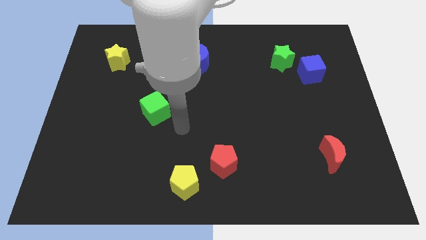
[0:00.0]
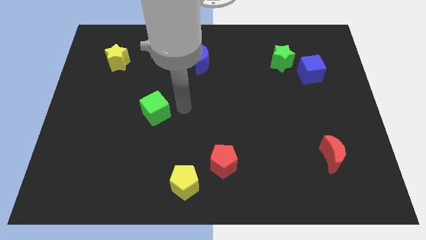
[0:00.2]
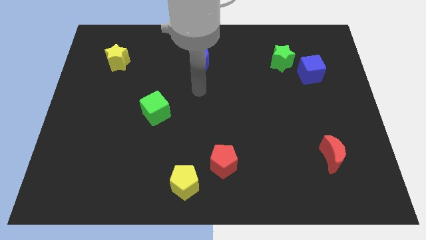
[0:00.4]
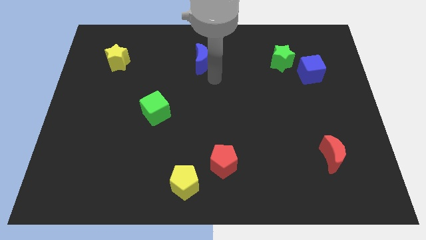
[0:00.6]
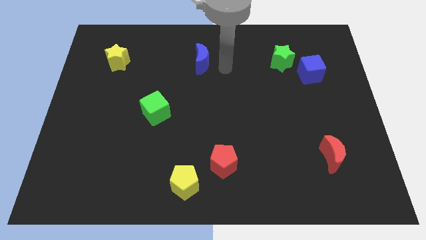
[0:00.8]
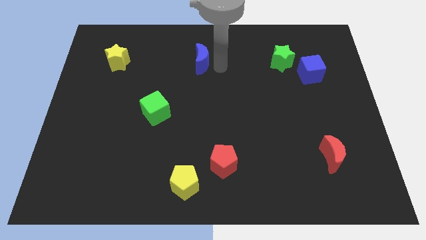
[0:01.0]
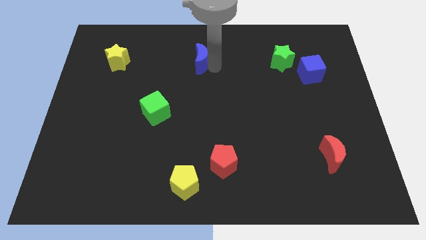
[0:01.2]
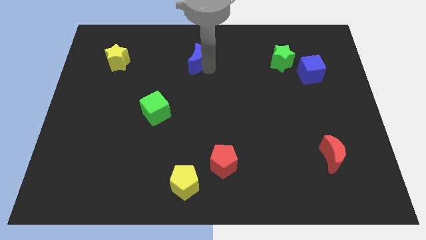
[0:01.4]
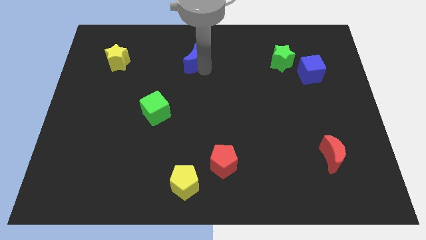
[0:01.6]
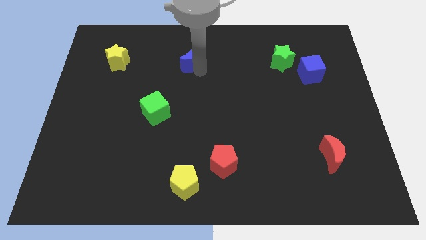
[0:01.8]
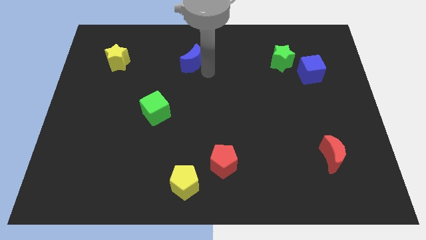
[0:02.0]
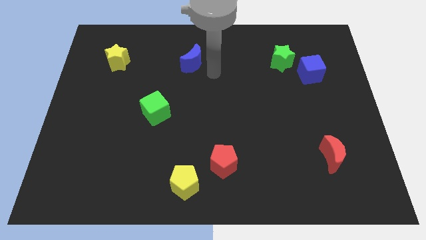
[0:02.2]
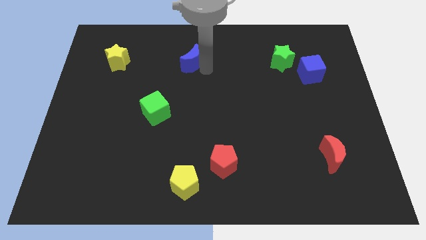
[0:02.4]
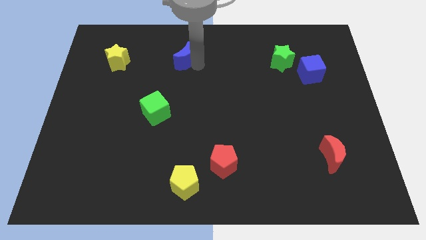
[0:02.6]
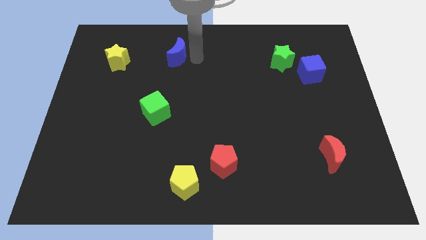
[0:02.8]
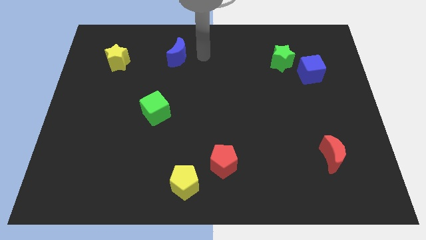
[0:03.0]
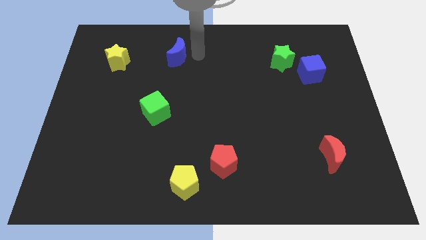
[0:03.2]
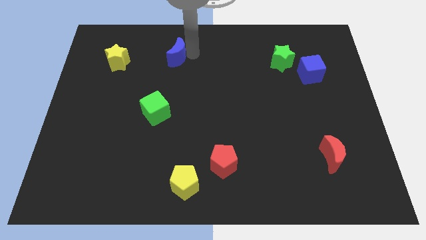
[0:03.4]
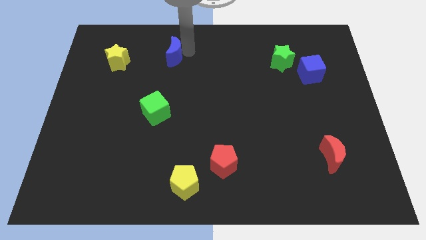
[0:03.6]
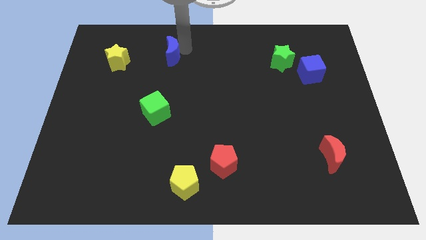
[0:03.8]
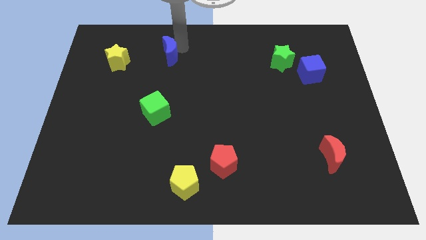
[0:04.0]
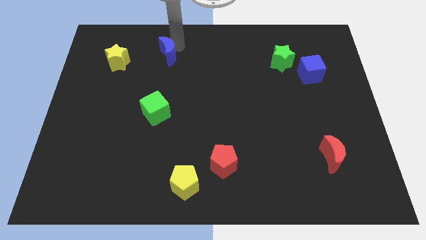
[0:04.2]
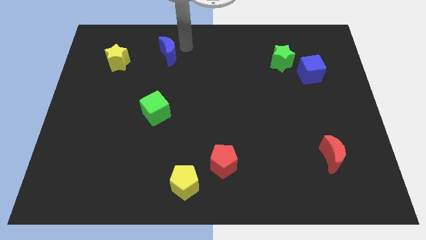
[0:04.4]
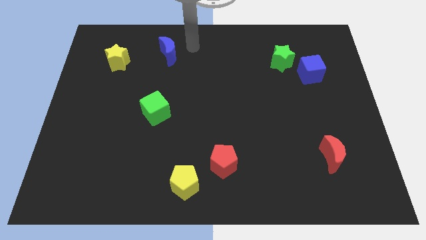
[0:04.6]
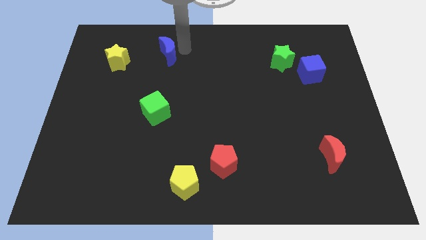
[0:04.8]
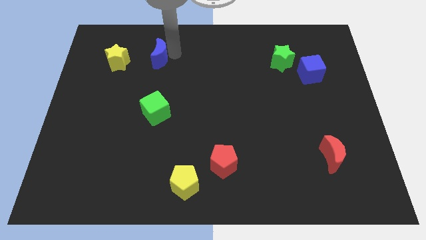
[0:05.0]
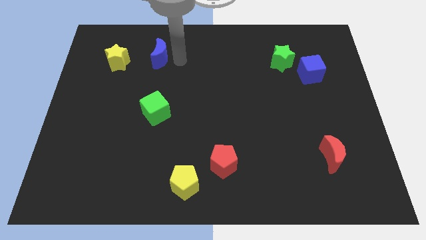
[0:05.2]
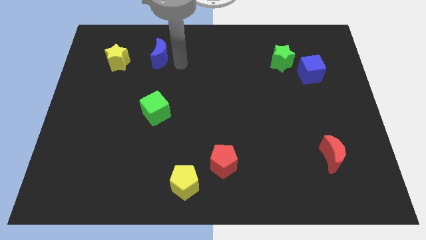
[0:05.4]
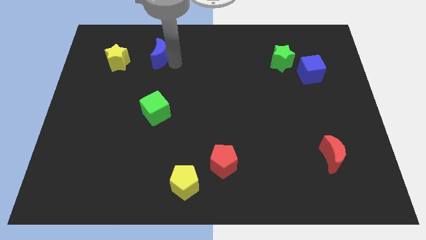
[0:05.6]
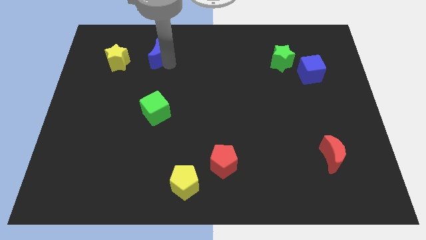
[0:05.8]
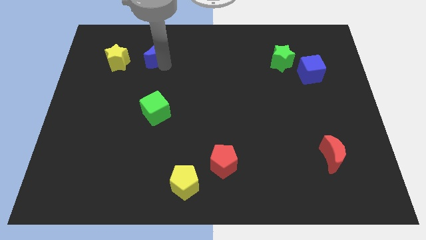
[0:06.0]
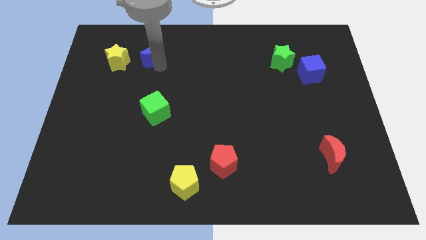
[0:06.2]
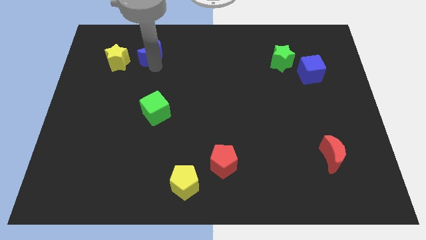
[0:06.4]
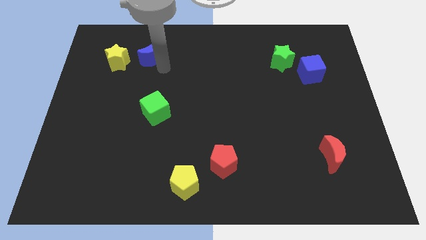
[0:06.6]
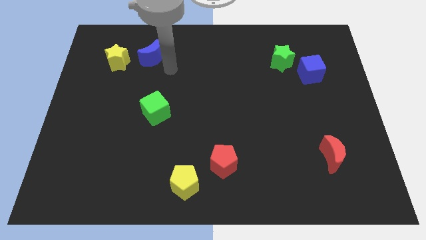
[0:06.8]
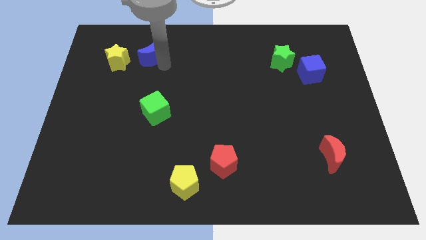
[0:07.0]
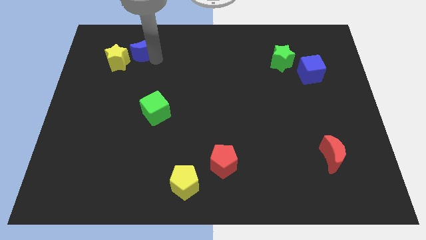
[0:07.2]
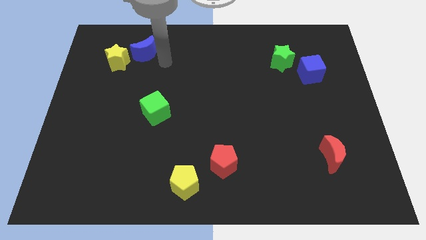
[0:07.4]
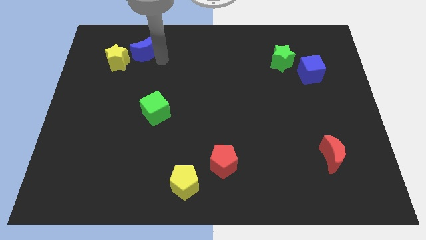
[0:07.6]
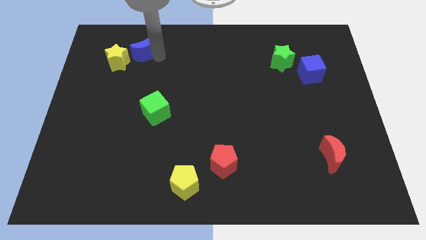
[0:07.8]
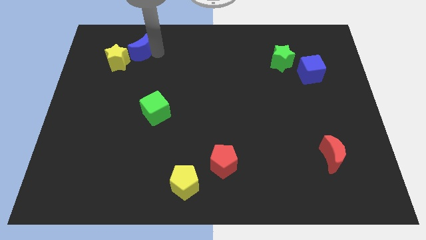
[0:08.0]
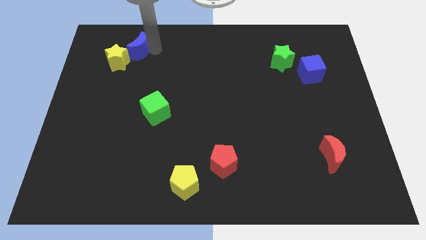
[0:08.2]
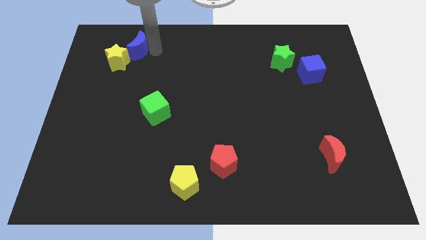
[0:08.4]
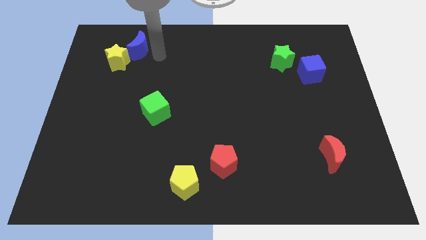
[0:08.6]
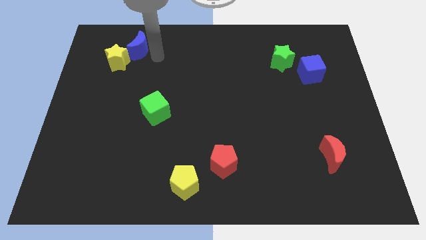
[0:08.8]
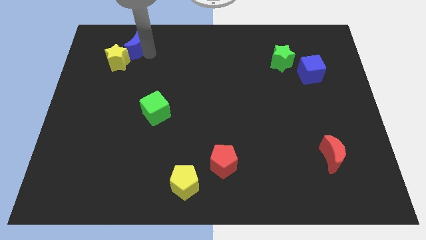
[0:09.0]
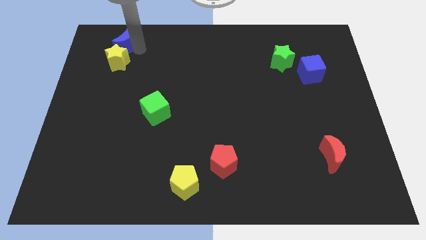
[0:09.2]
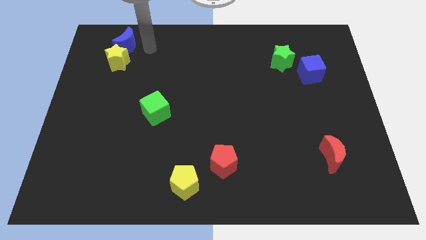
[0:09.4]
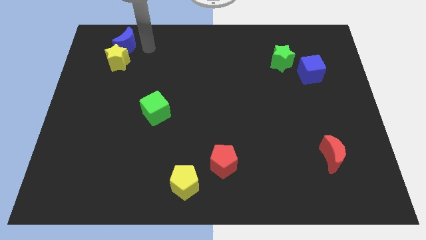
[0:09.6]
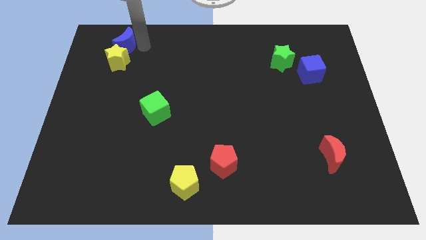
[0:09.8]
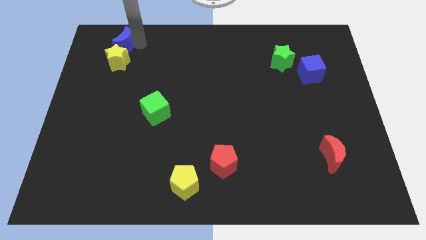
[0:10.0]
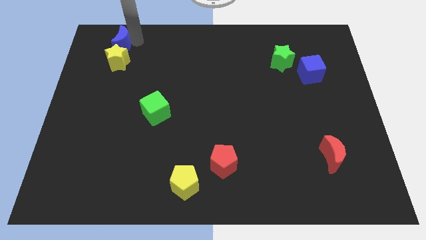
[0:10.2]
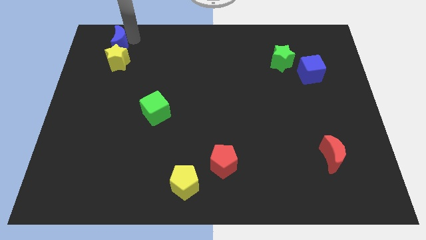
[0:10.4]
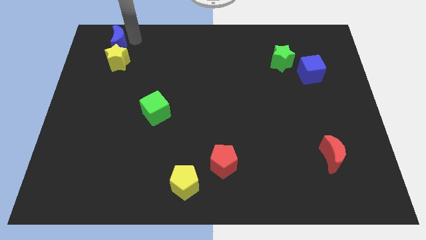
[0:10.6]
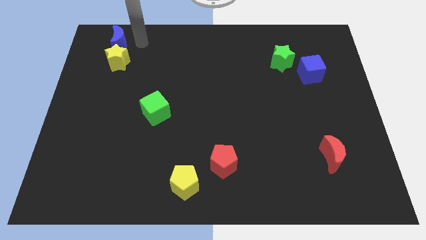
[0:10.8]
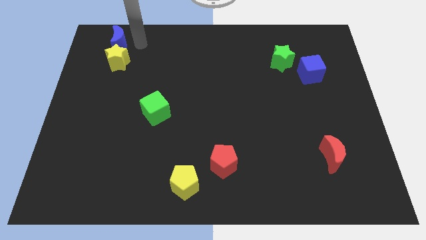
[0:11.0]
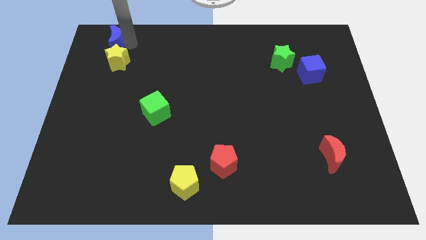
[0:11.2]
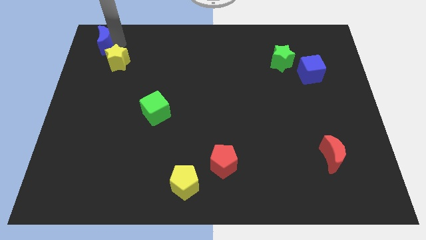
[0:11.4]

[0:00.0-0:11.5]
push the blue moon to the top left

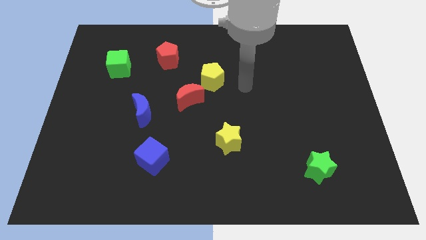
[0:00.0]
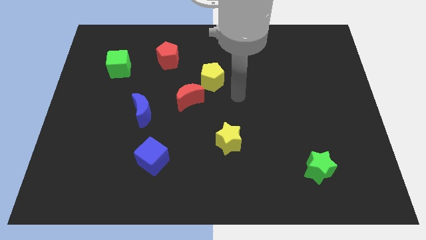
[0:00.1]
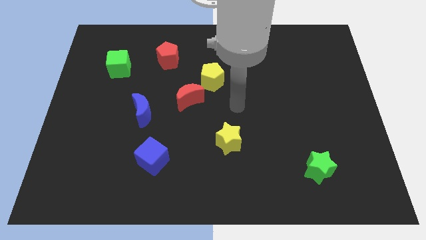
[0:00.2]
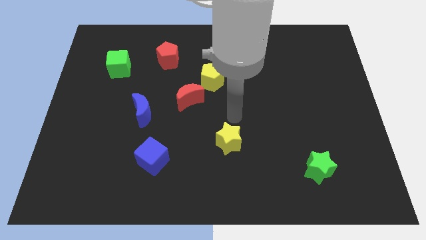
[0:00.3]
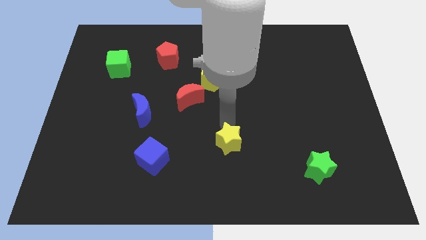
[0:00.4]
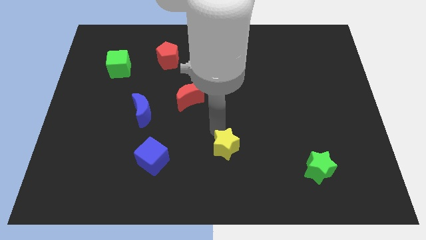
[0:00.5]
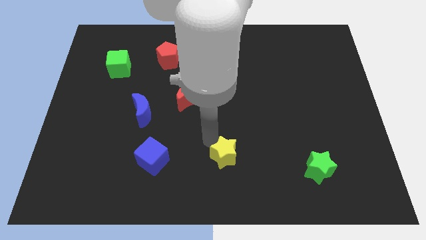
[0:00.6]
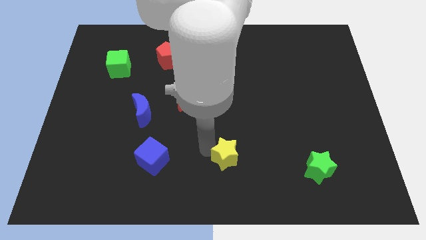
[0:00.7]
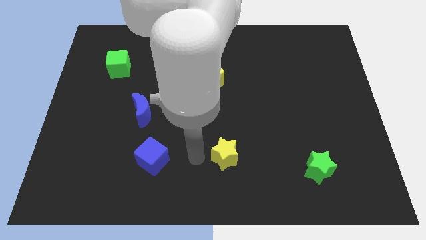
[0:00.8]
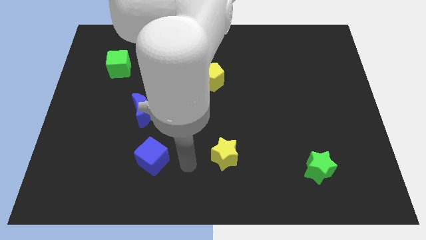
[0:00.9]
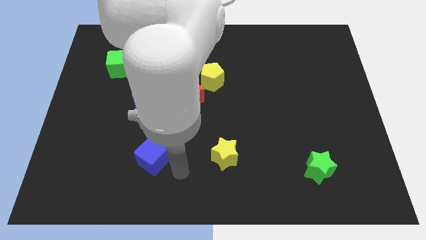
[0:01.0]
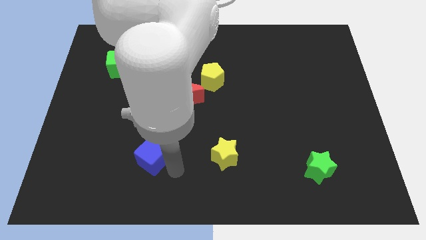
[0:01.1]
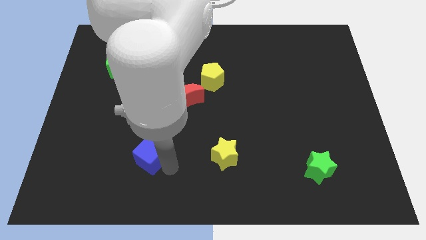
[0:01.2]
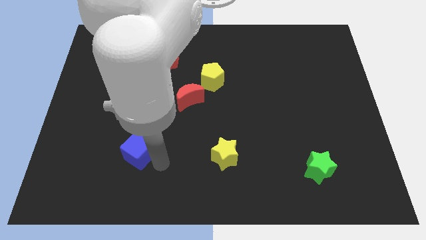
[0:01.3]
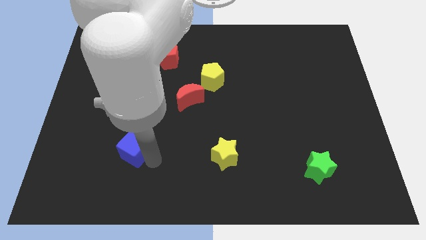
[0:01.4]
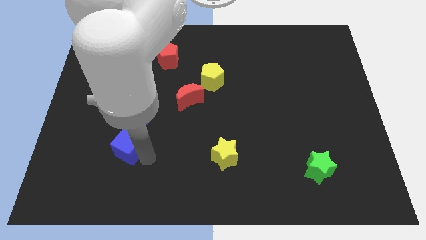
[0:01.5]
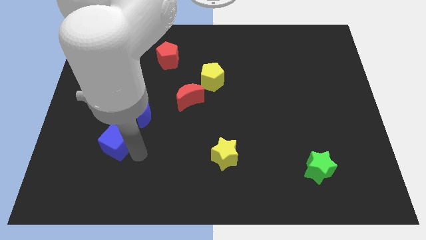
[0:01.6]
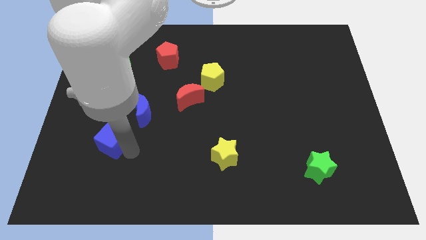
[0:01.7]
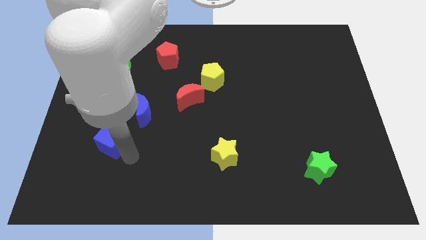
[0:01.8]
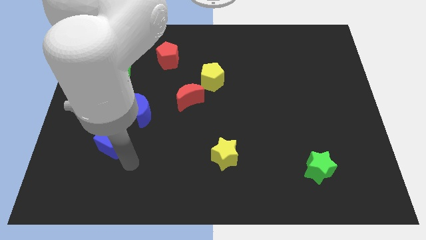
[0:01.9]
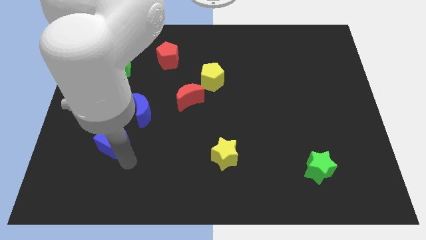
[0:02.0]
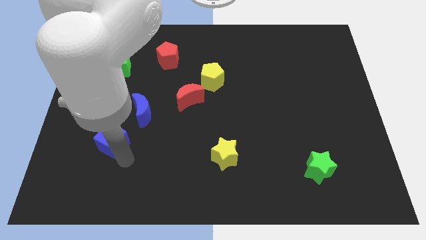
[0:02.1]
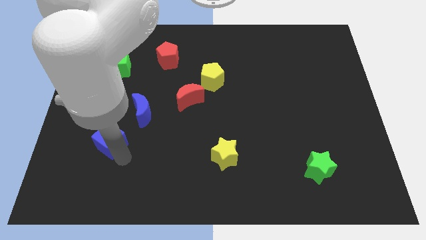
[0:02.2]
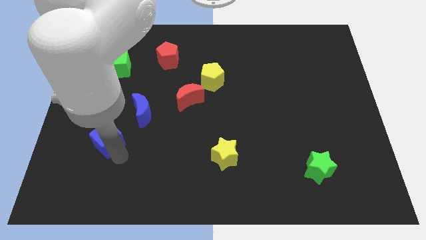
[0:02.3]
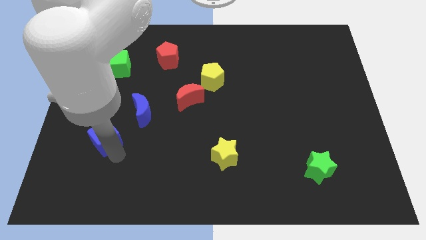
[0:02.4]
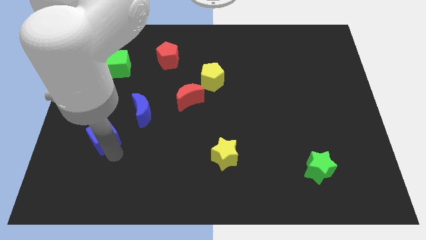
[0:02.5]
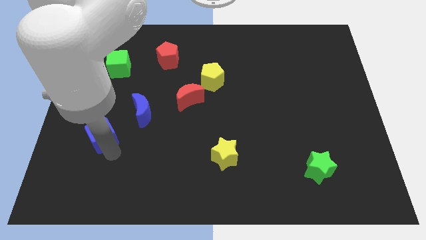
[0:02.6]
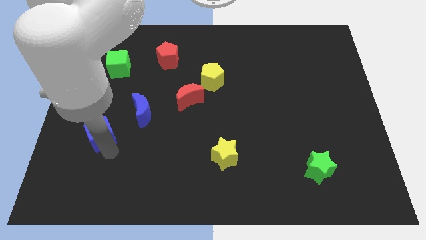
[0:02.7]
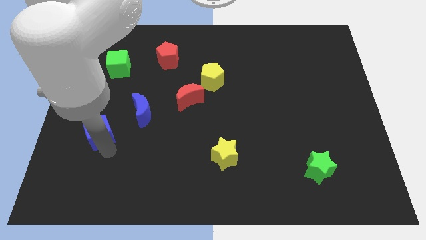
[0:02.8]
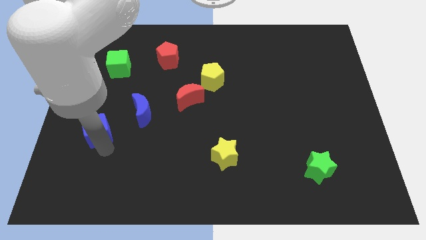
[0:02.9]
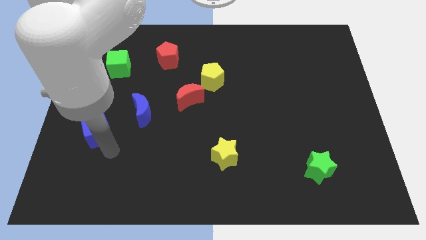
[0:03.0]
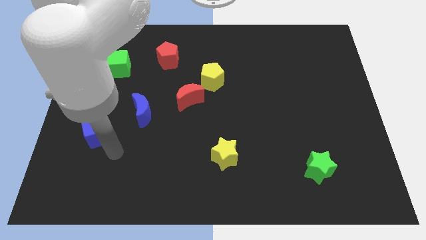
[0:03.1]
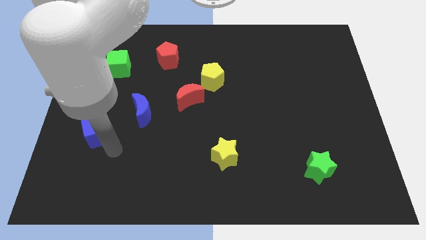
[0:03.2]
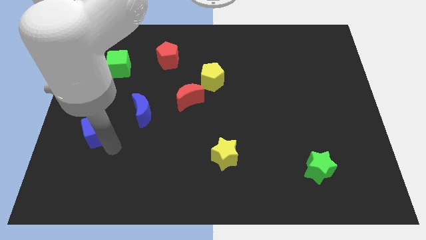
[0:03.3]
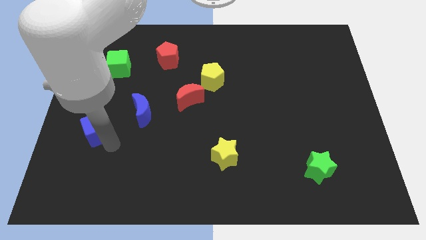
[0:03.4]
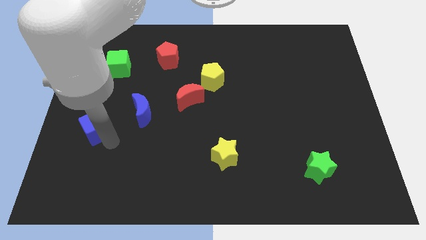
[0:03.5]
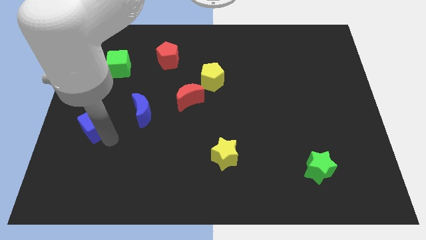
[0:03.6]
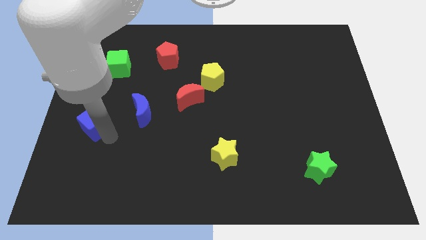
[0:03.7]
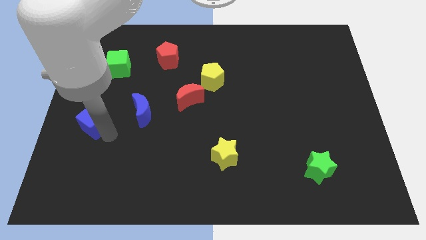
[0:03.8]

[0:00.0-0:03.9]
push the blue cube to the left side of the board
